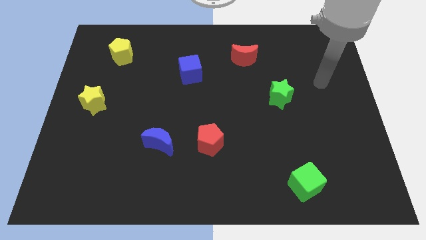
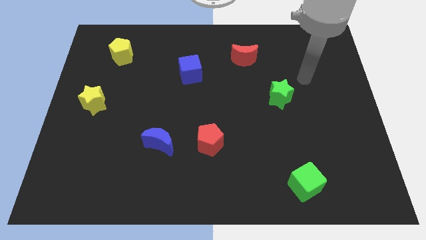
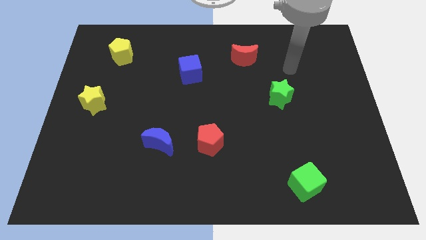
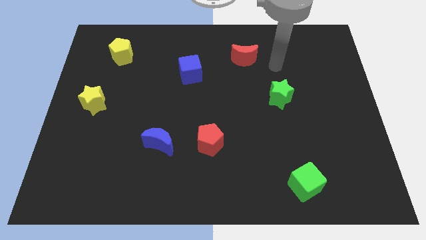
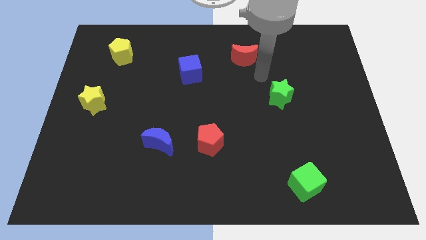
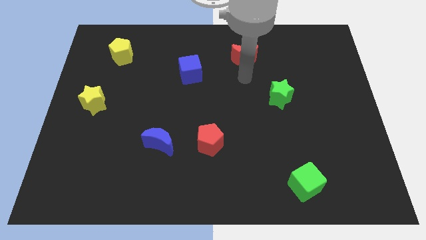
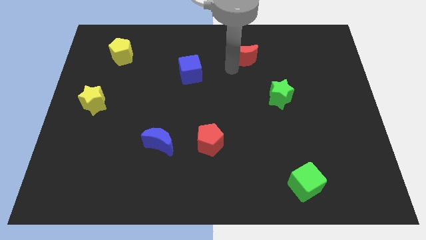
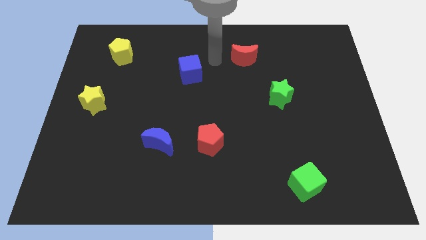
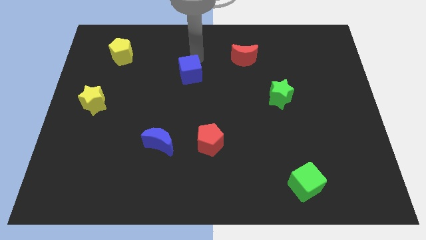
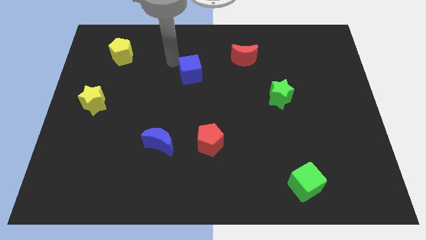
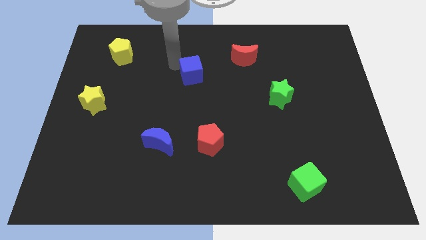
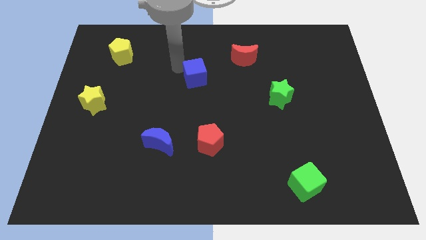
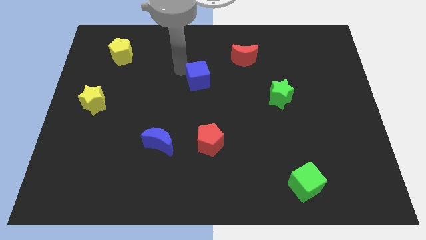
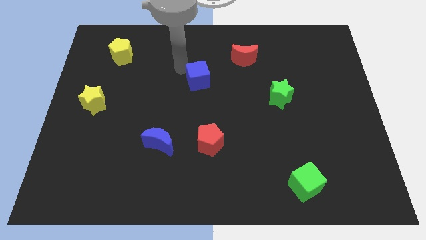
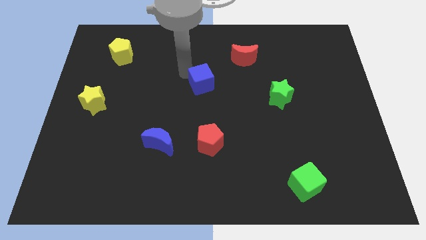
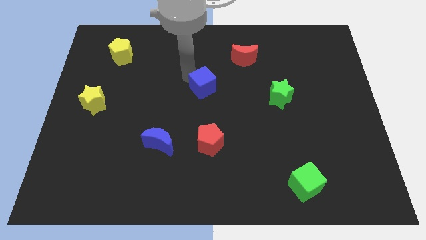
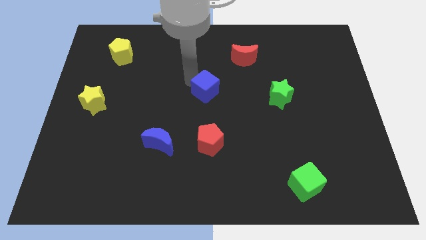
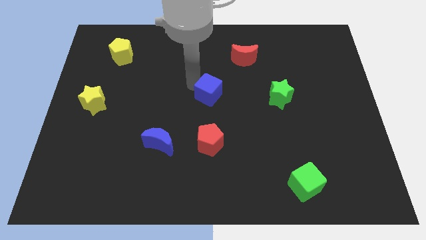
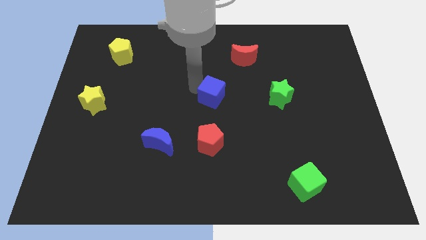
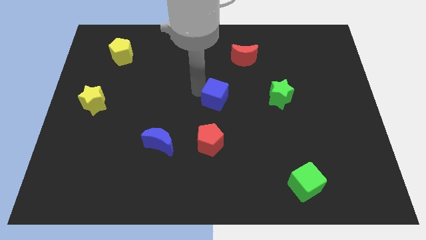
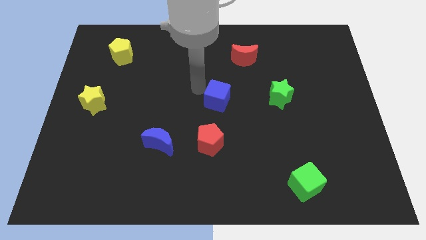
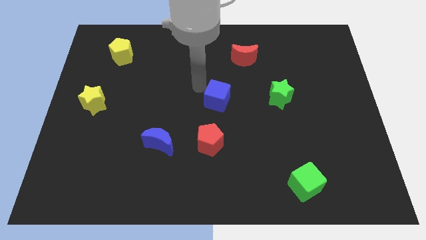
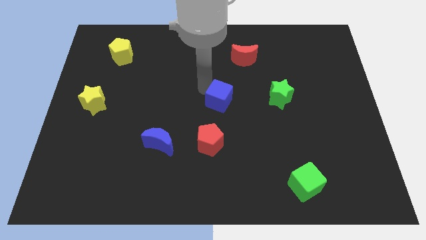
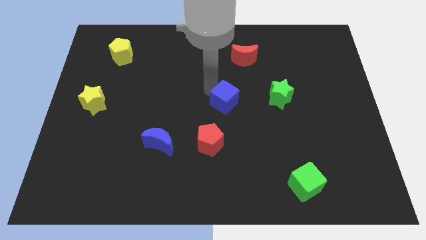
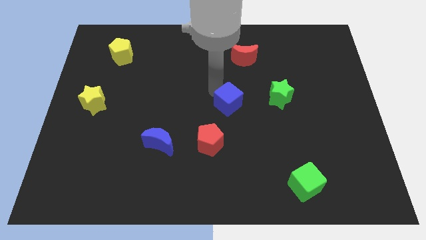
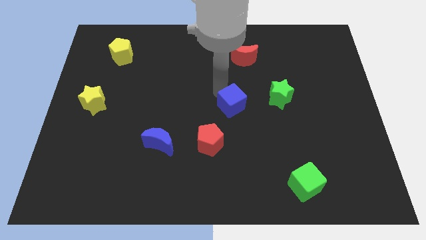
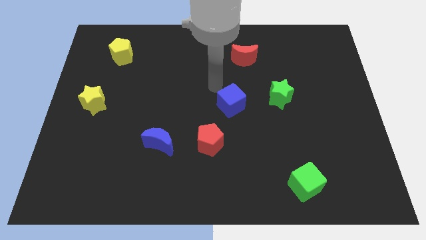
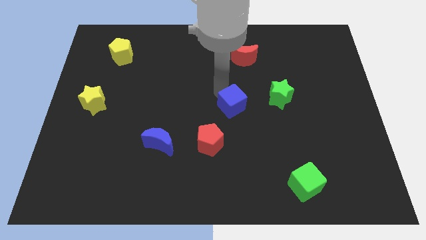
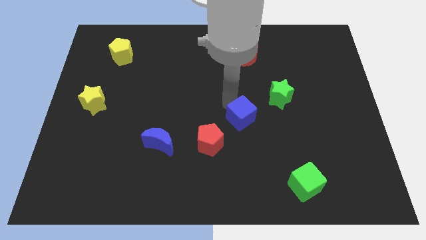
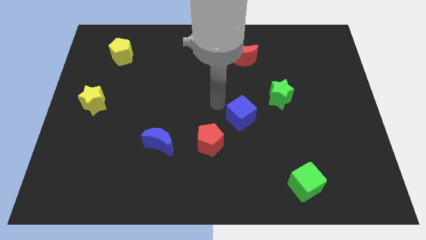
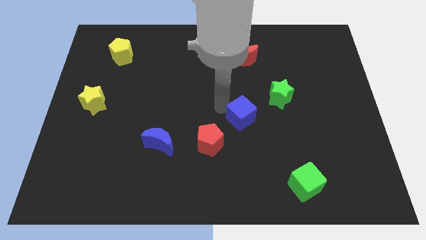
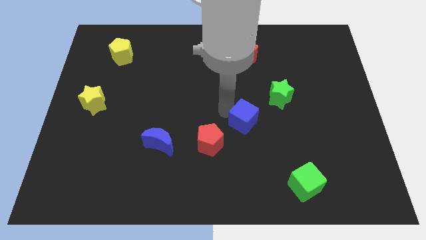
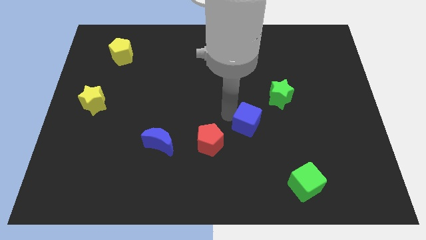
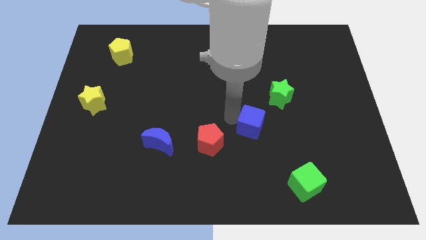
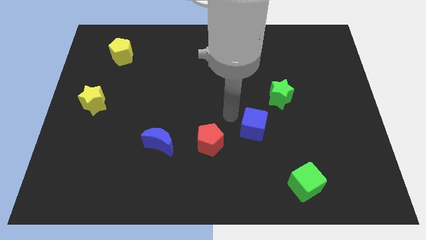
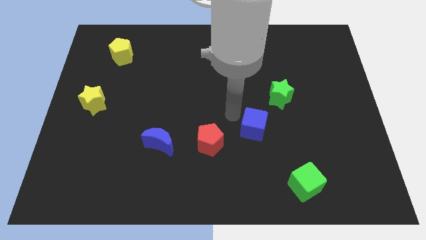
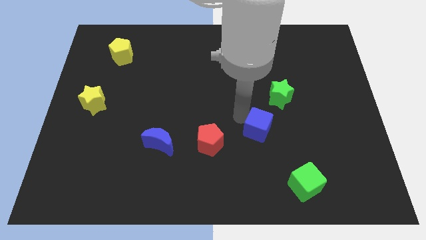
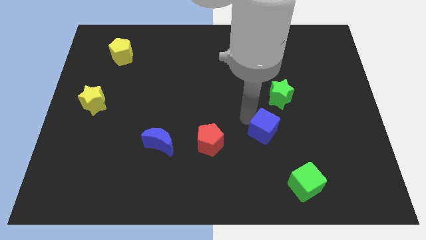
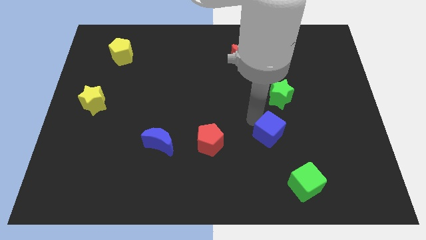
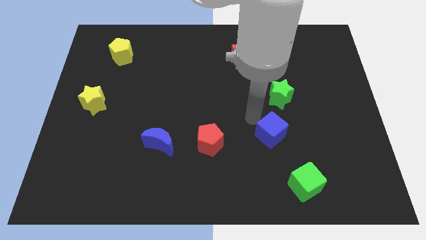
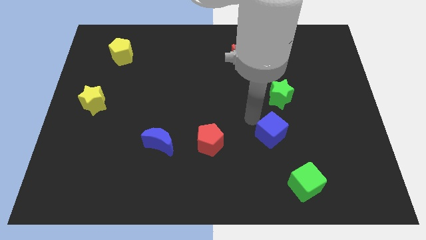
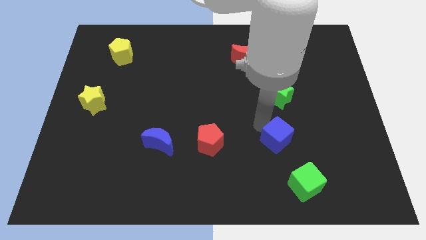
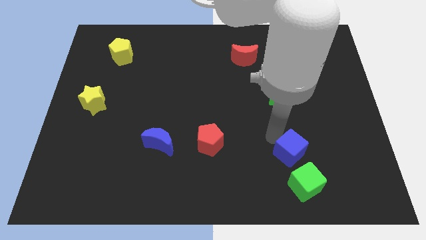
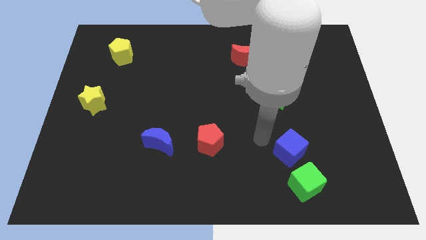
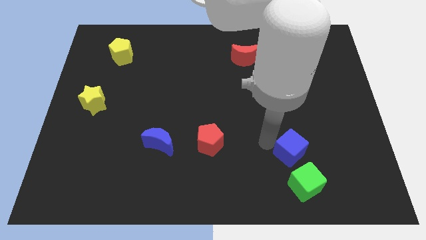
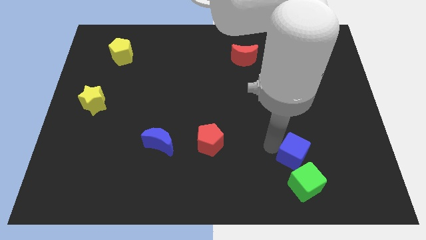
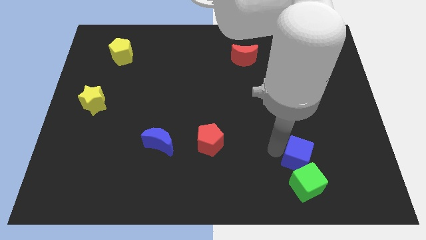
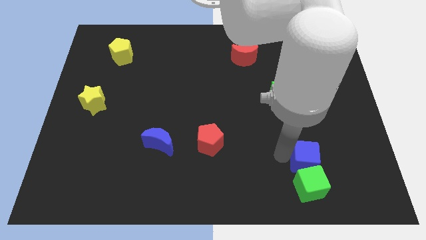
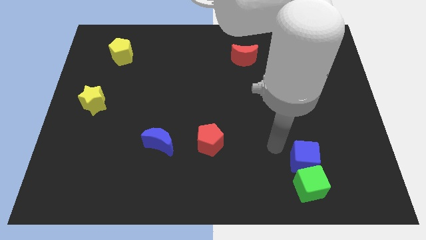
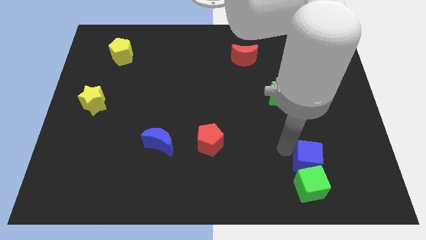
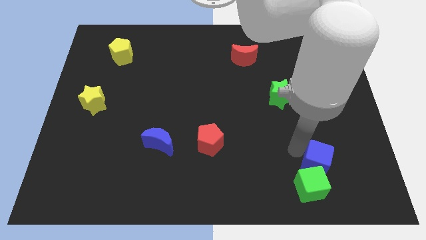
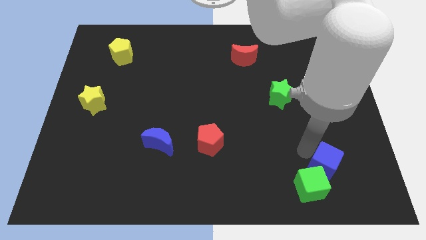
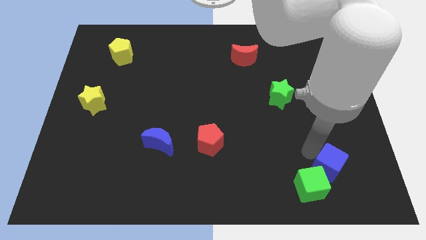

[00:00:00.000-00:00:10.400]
move the blue cube right of the green cube

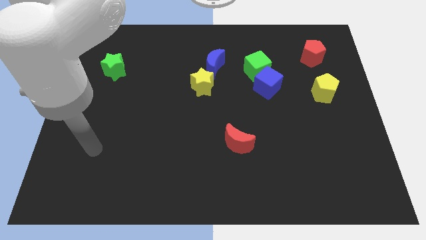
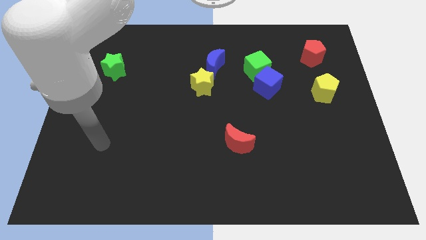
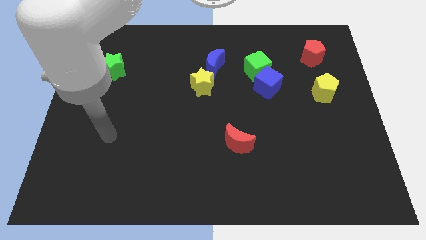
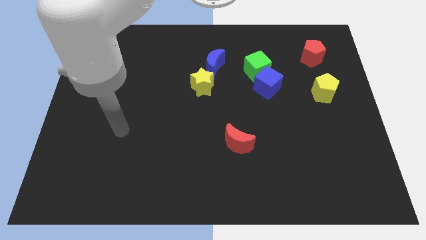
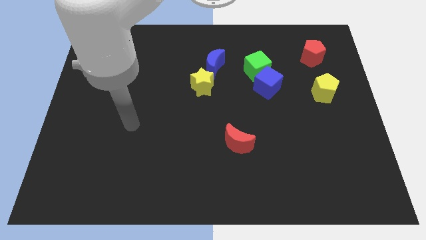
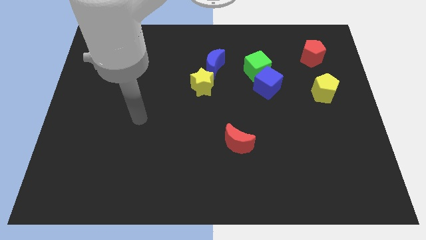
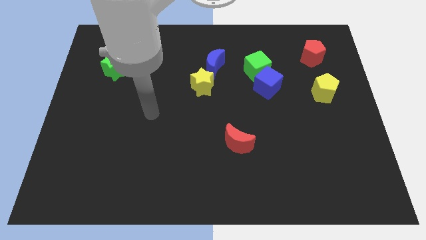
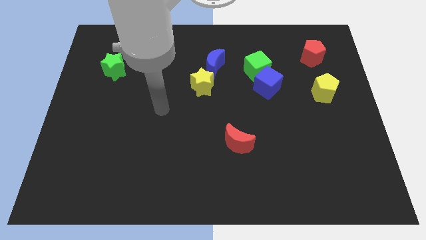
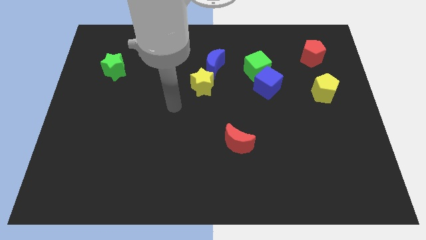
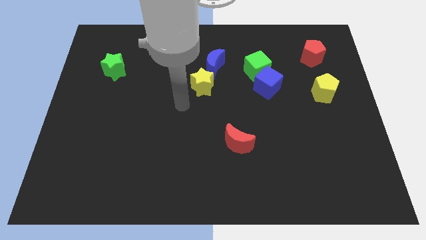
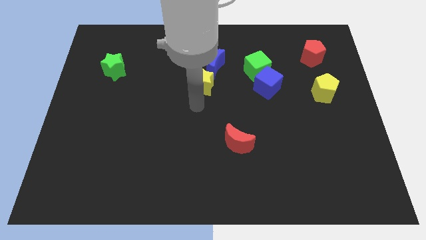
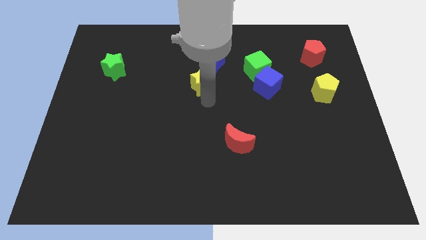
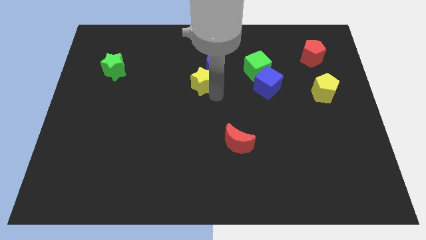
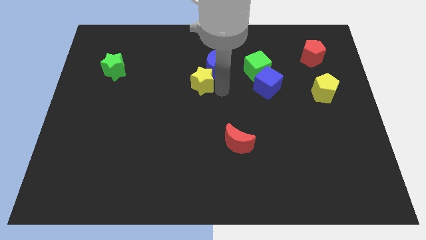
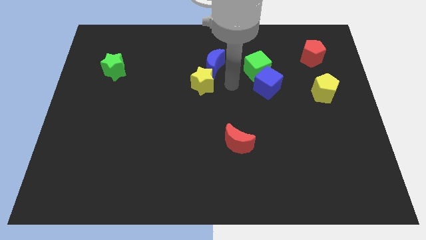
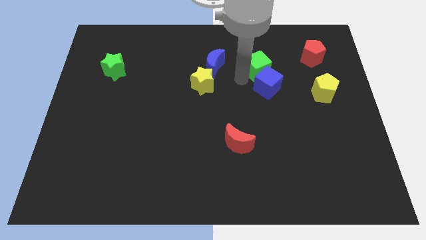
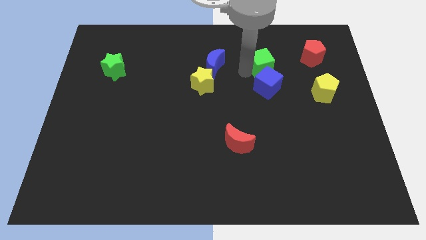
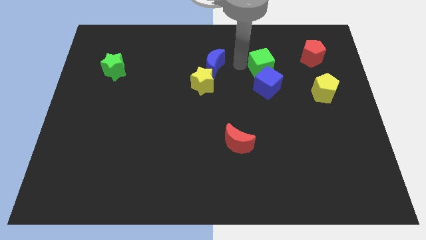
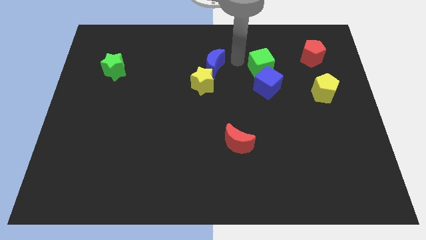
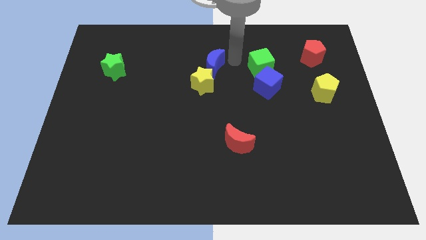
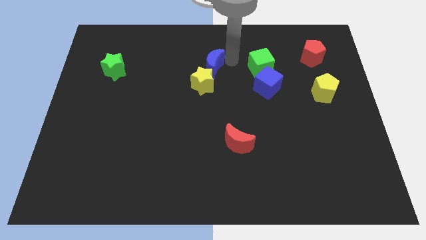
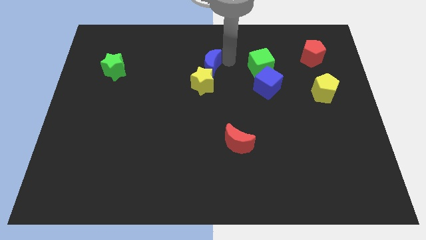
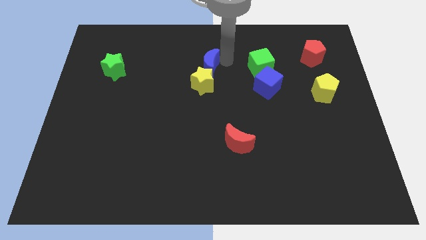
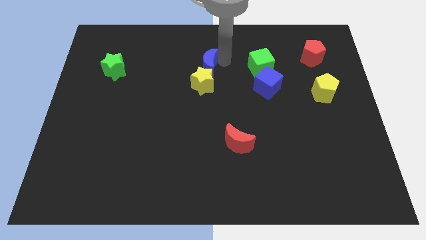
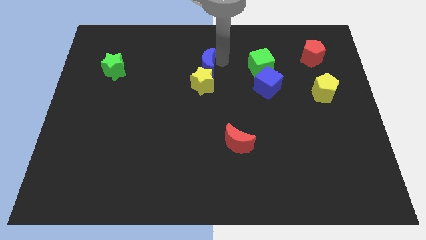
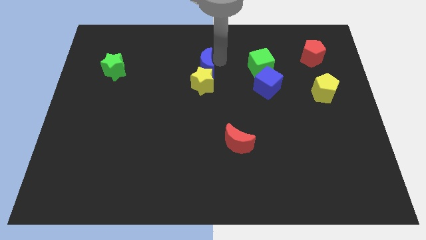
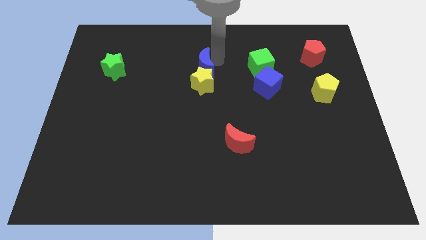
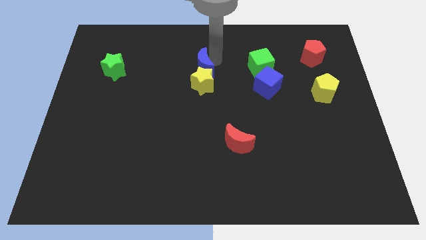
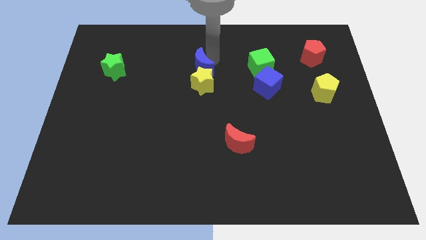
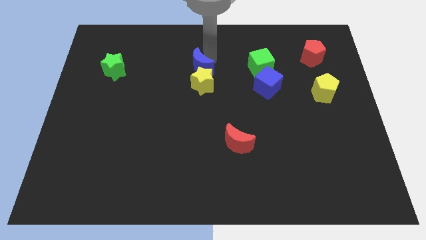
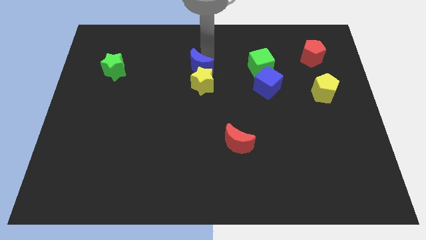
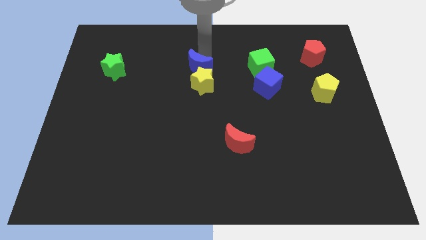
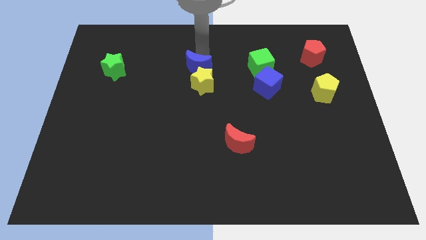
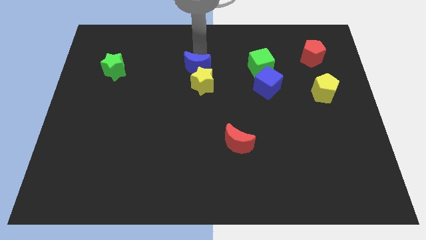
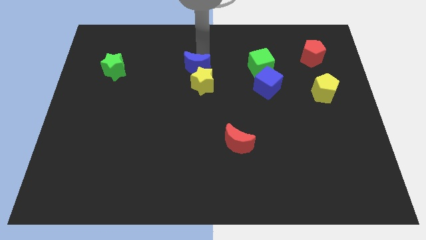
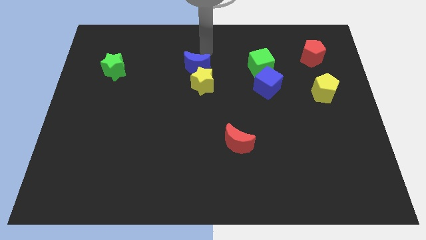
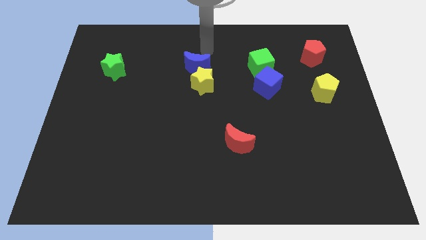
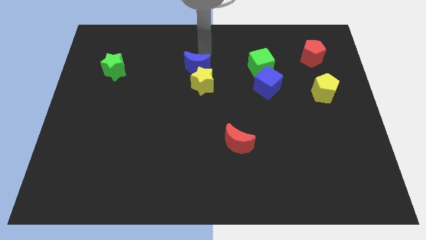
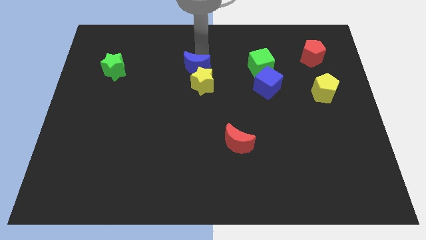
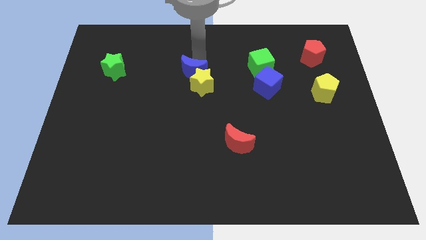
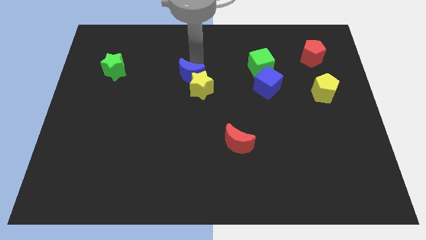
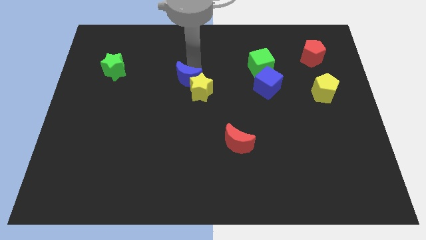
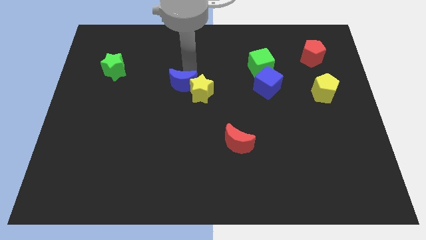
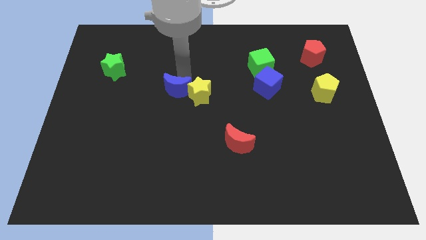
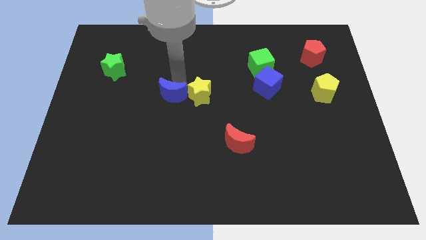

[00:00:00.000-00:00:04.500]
put the blue moon to the bottom left side of the yellow star
